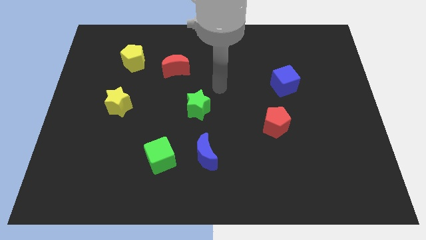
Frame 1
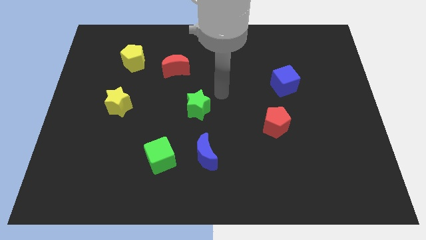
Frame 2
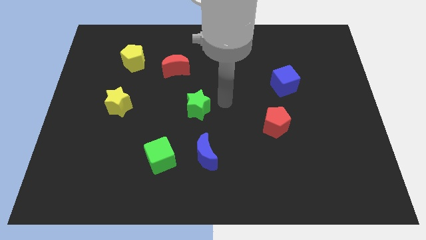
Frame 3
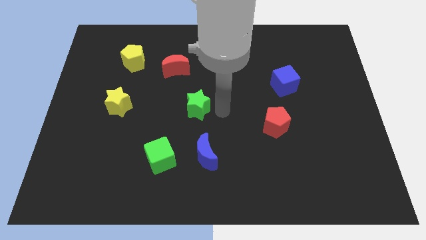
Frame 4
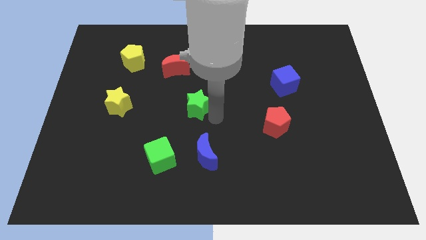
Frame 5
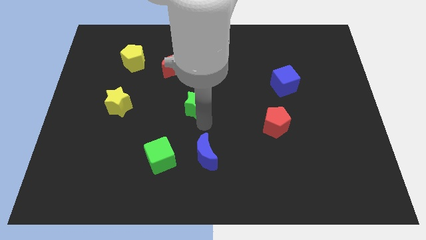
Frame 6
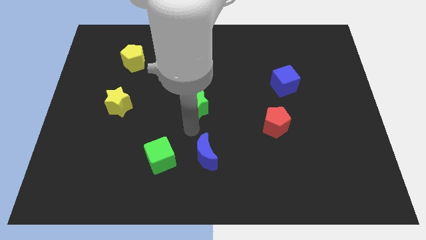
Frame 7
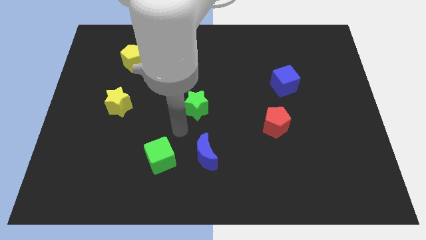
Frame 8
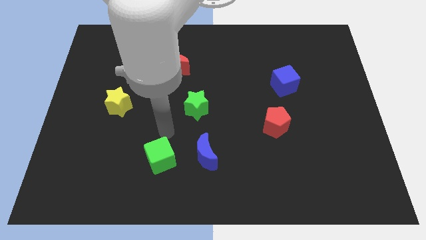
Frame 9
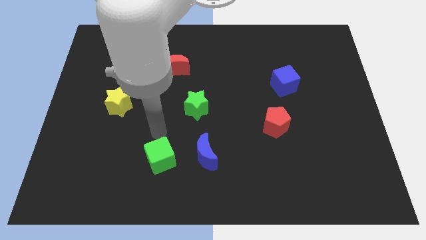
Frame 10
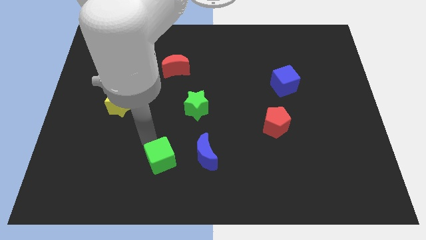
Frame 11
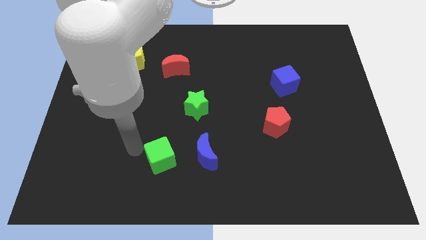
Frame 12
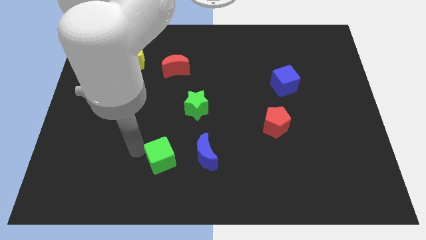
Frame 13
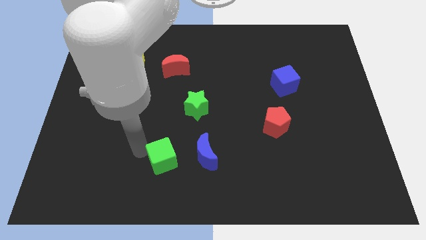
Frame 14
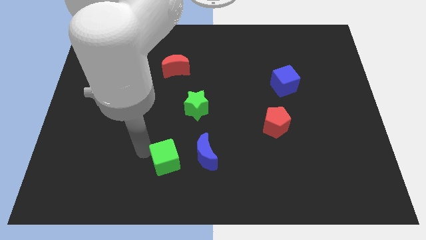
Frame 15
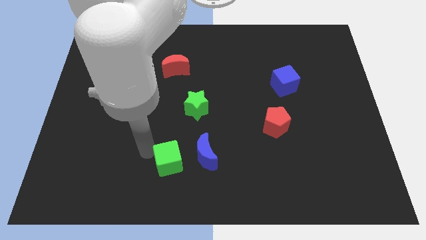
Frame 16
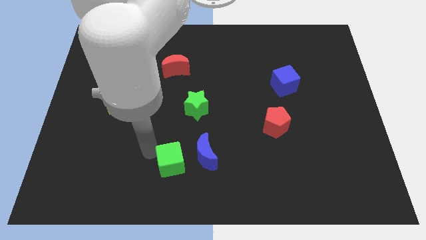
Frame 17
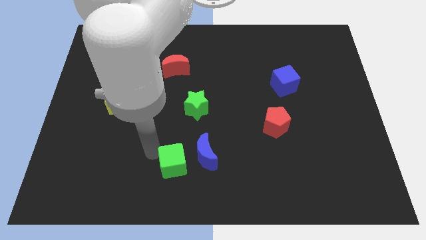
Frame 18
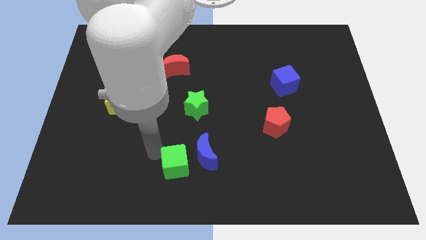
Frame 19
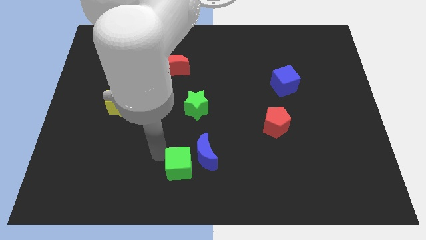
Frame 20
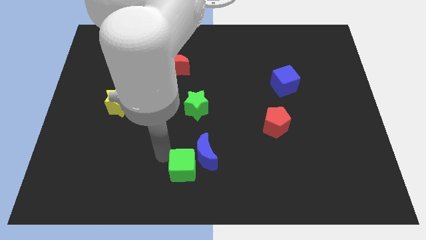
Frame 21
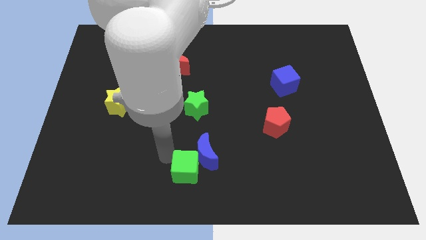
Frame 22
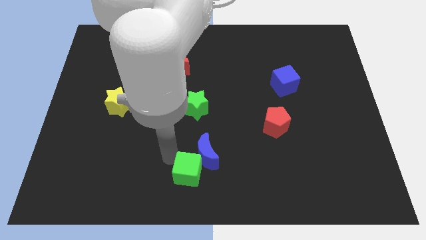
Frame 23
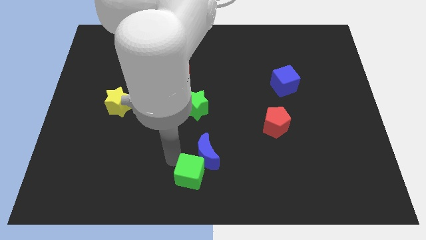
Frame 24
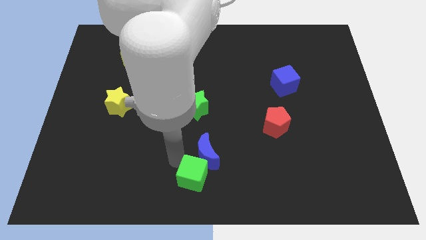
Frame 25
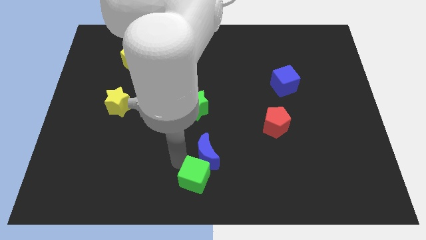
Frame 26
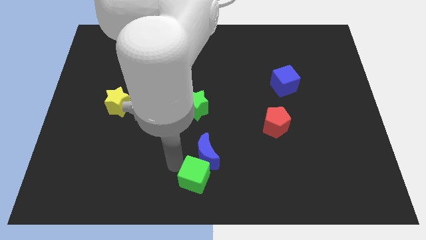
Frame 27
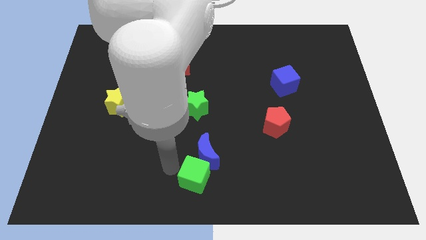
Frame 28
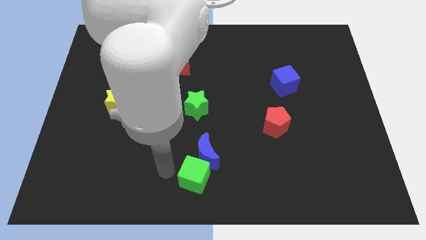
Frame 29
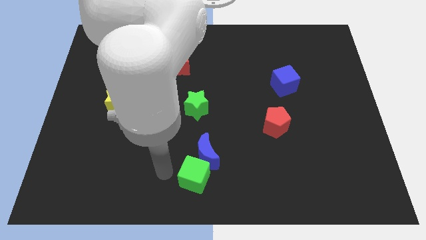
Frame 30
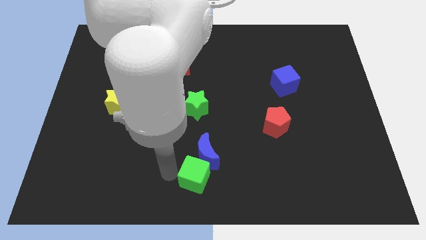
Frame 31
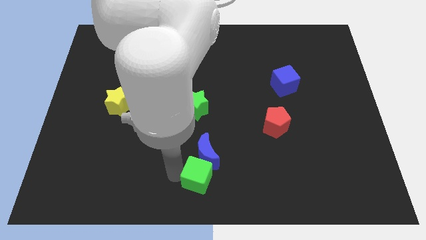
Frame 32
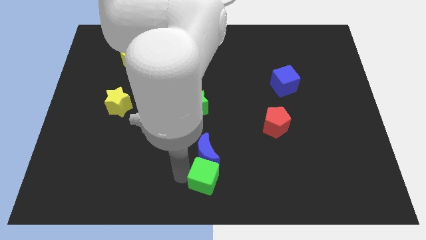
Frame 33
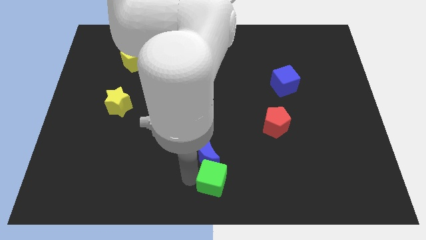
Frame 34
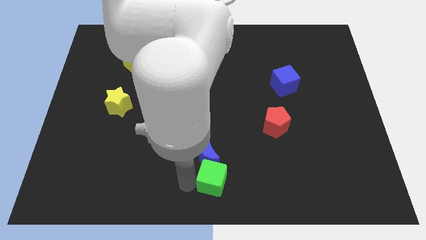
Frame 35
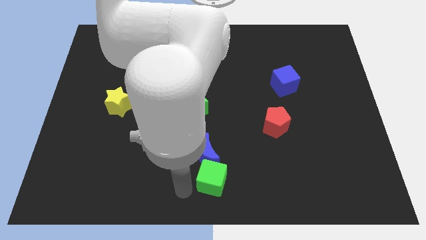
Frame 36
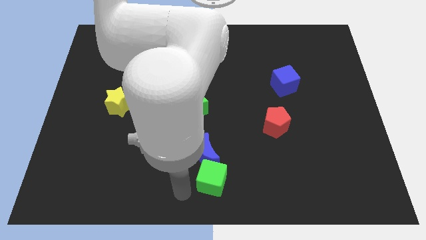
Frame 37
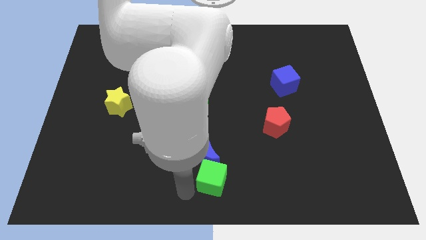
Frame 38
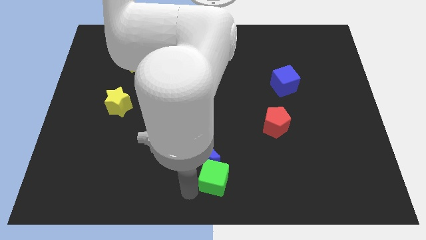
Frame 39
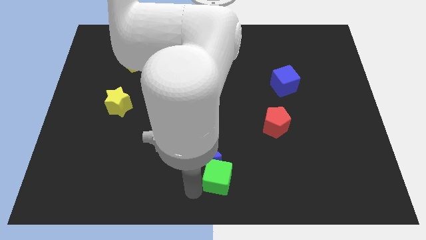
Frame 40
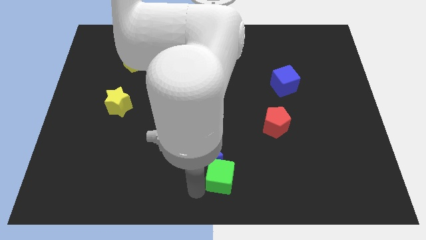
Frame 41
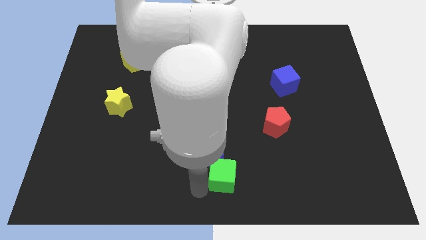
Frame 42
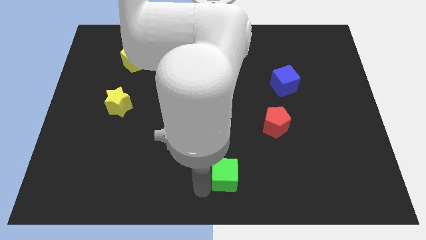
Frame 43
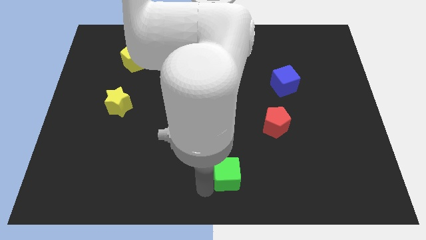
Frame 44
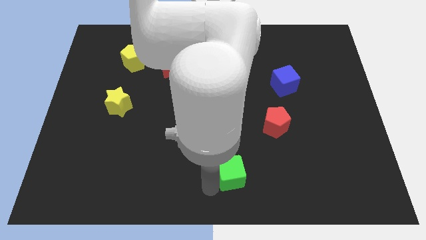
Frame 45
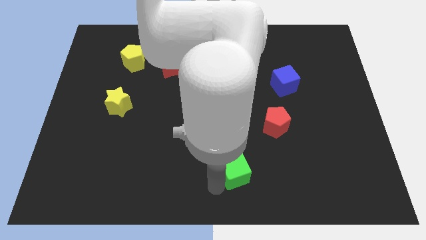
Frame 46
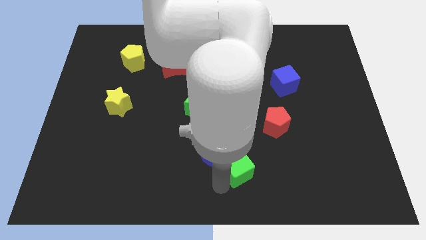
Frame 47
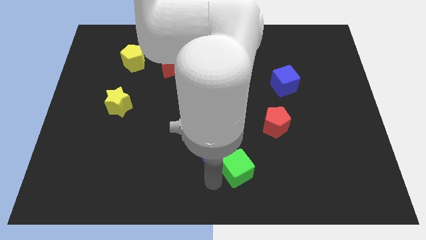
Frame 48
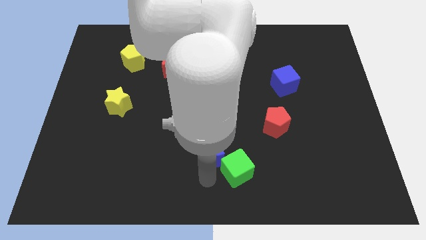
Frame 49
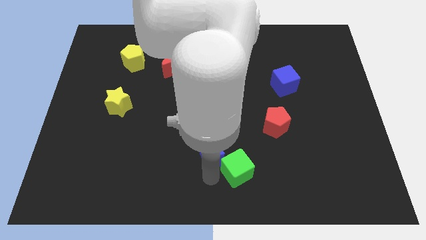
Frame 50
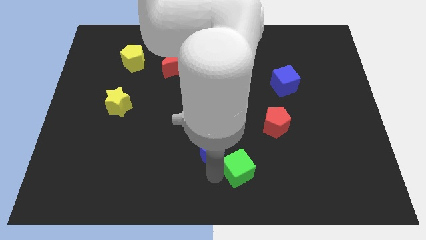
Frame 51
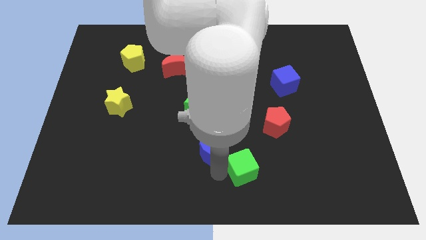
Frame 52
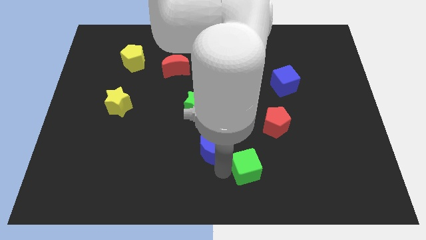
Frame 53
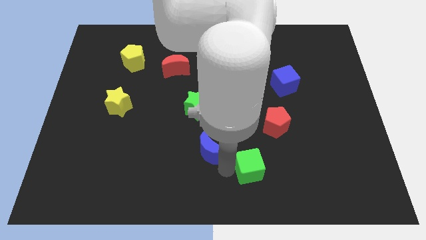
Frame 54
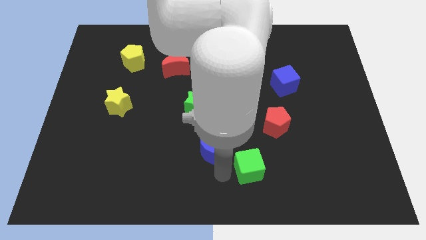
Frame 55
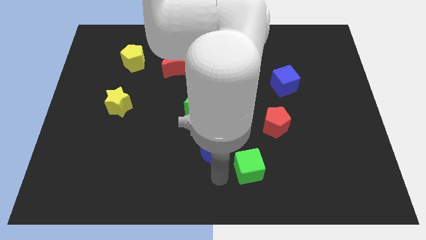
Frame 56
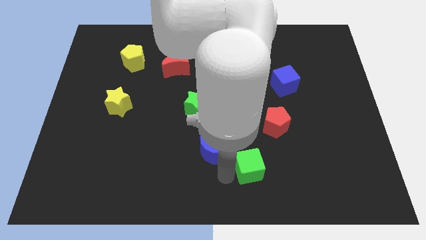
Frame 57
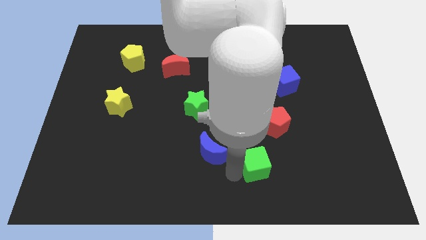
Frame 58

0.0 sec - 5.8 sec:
move the green cube to the right

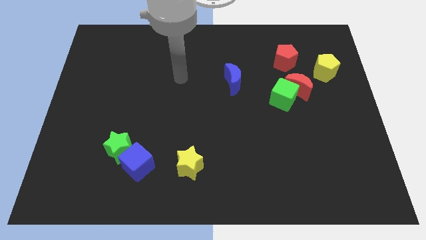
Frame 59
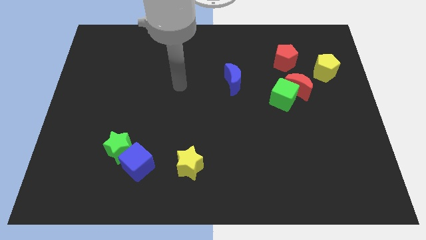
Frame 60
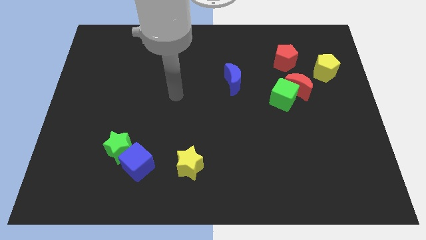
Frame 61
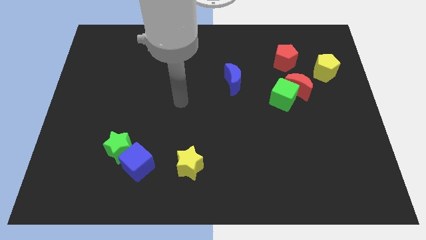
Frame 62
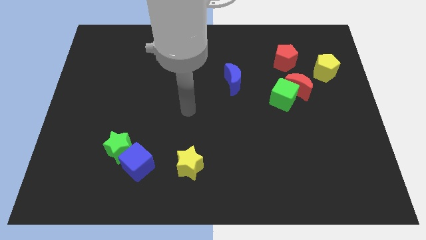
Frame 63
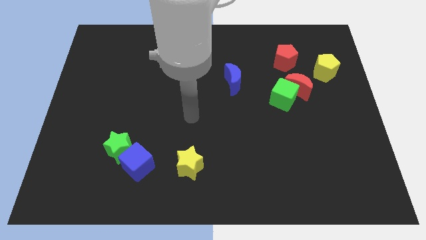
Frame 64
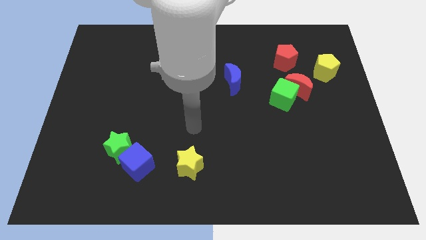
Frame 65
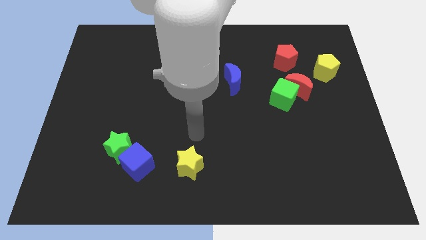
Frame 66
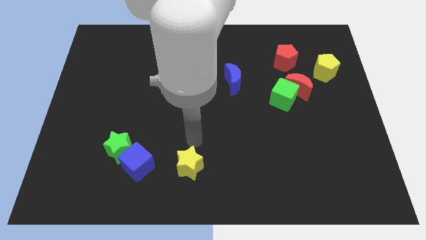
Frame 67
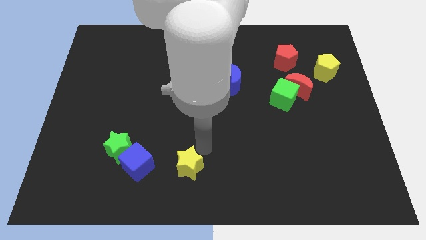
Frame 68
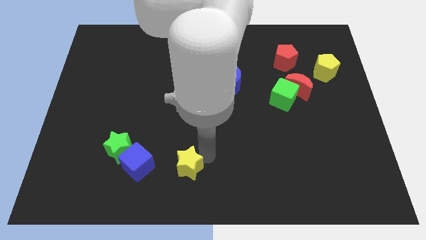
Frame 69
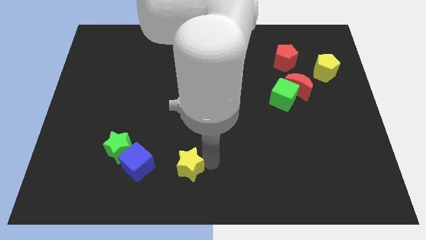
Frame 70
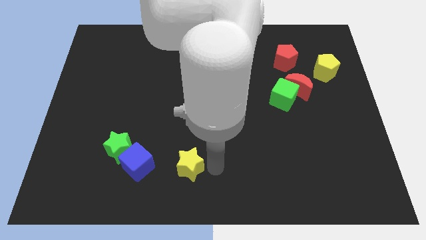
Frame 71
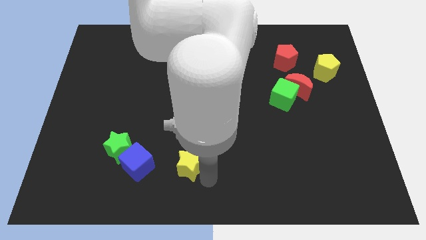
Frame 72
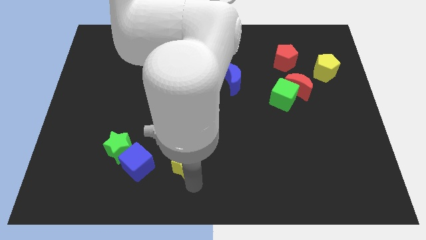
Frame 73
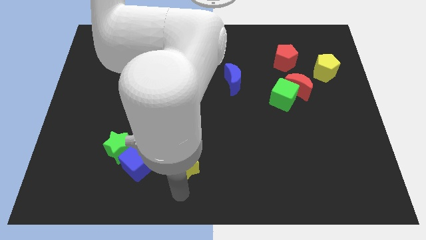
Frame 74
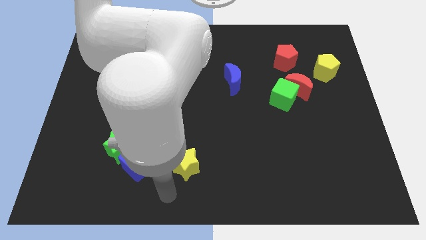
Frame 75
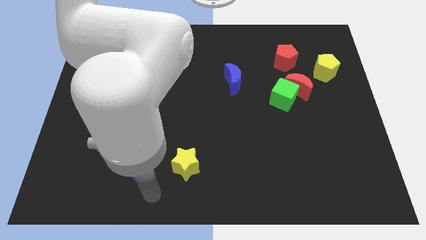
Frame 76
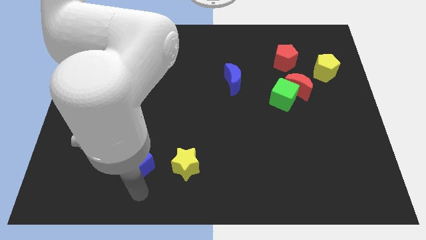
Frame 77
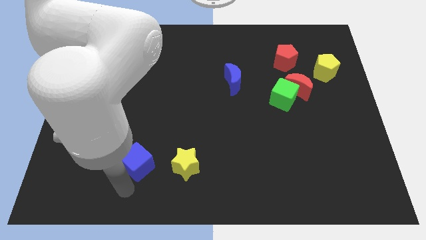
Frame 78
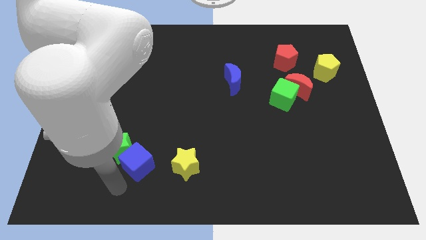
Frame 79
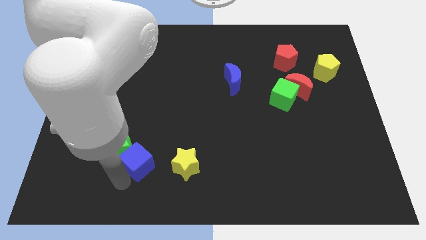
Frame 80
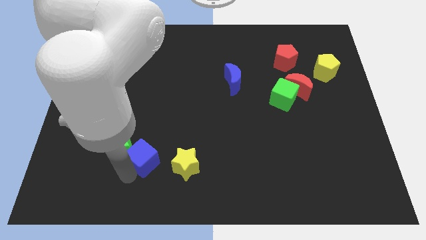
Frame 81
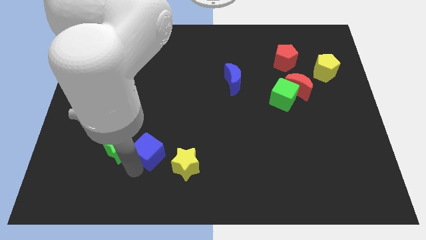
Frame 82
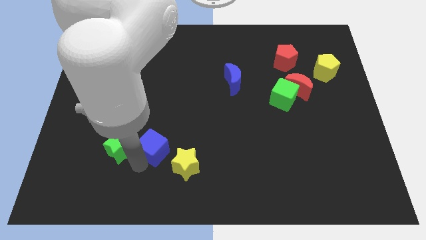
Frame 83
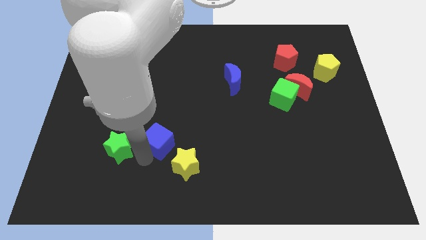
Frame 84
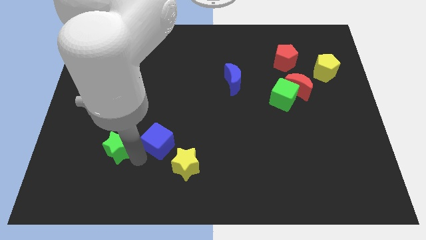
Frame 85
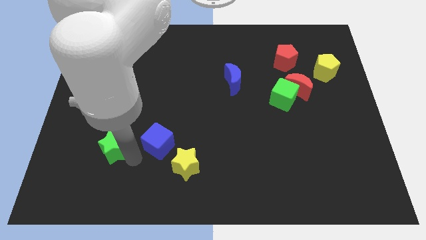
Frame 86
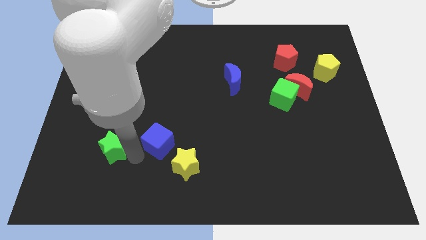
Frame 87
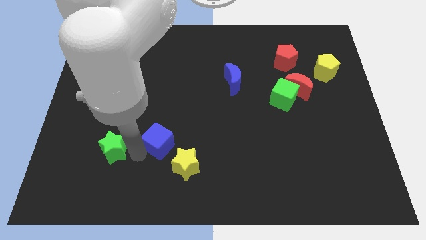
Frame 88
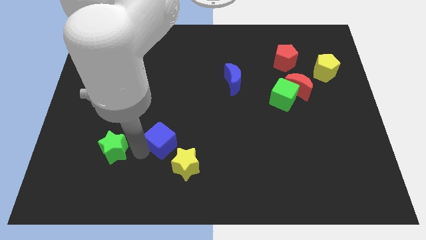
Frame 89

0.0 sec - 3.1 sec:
slightly push the blue cube upwards and right diagonally
